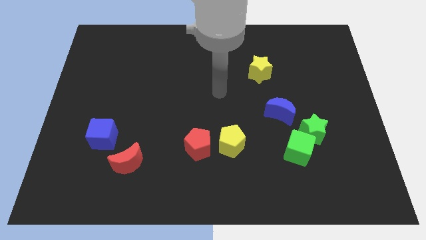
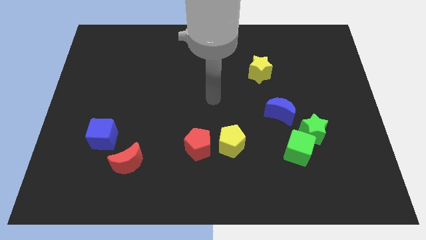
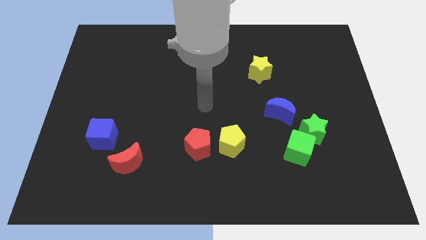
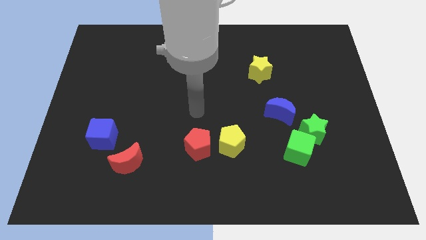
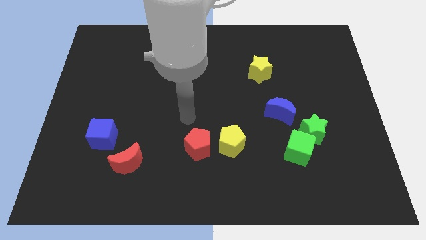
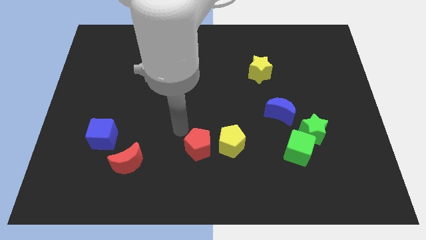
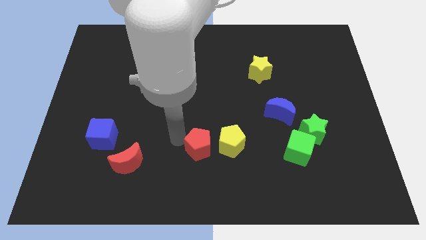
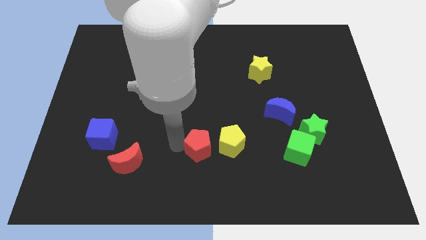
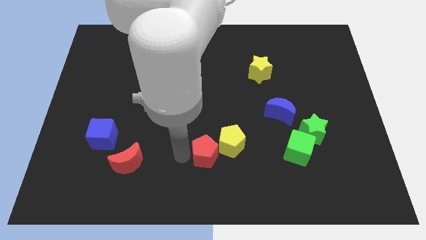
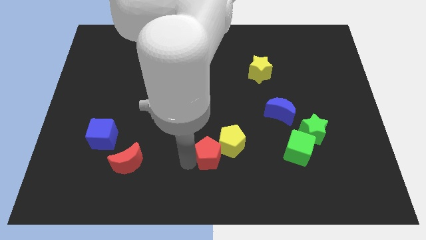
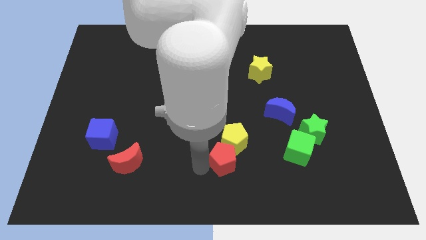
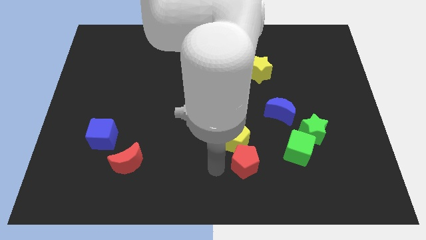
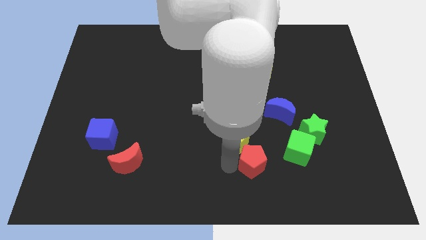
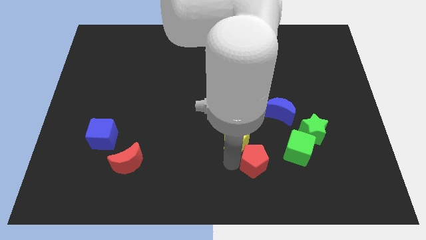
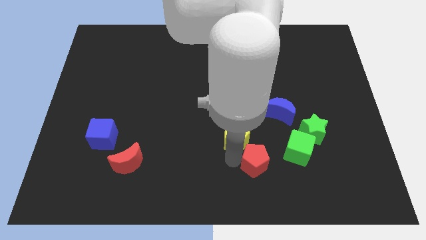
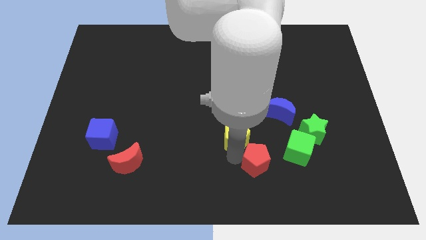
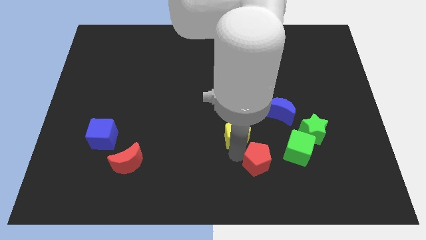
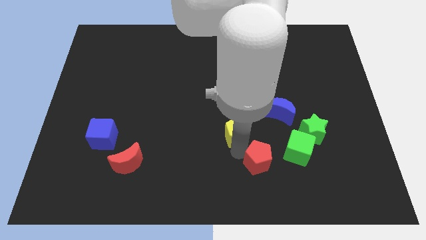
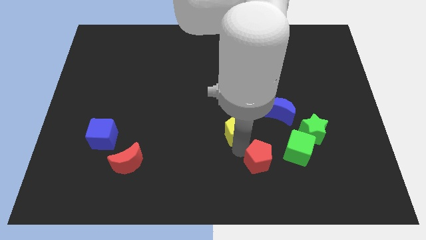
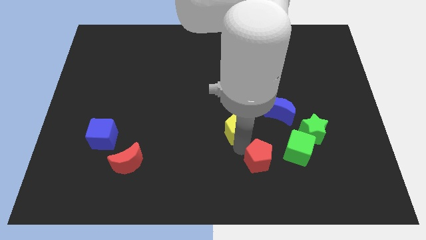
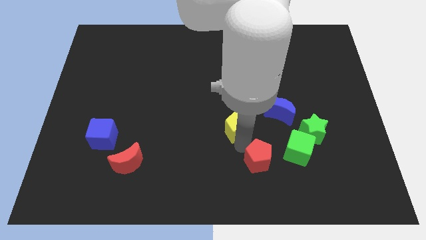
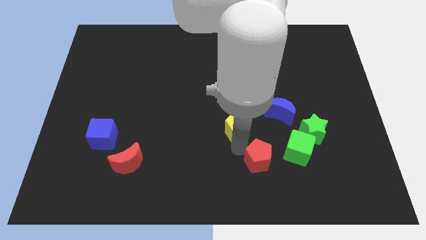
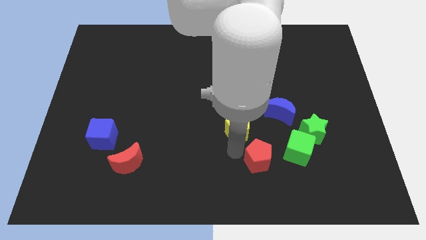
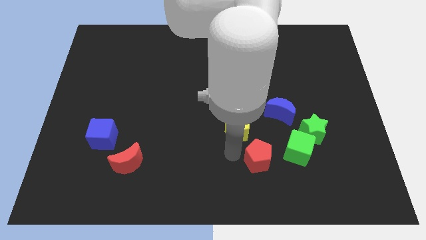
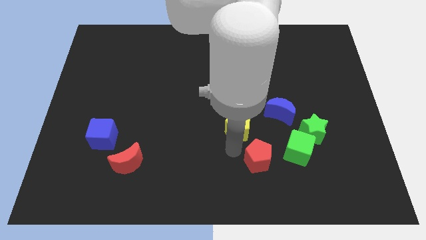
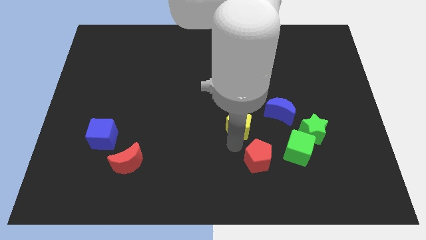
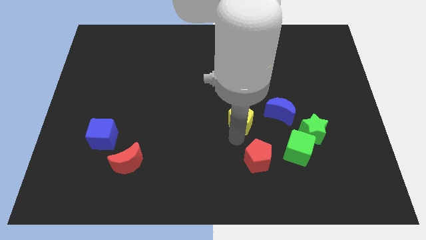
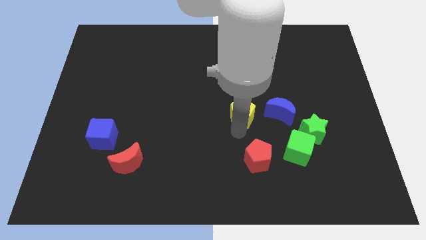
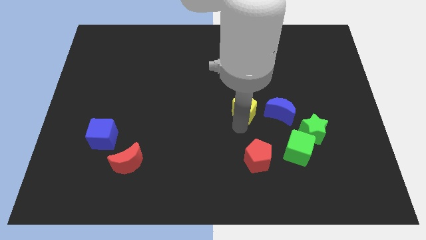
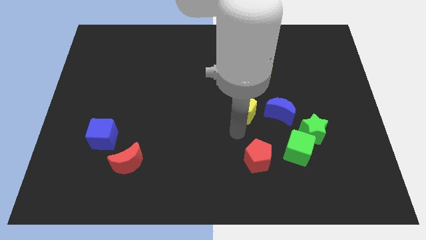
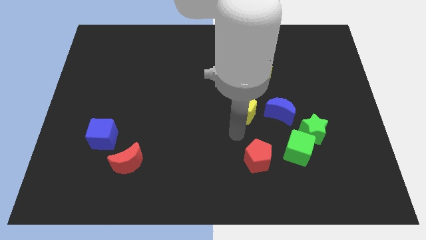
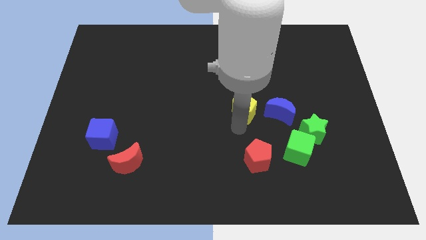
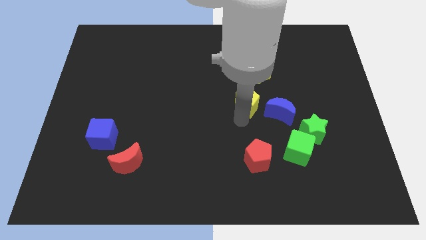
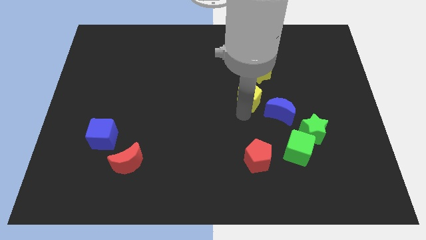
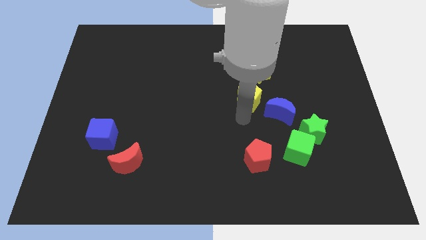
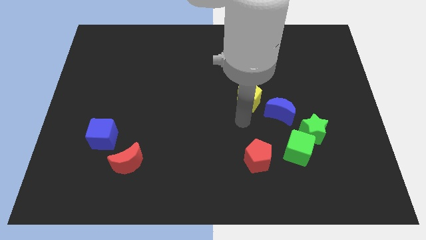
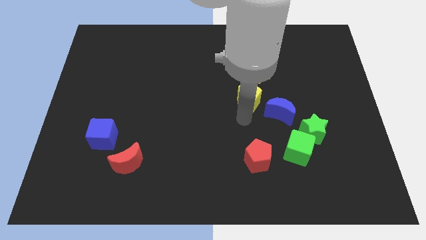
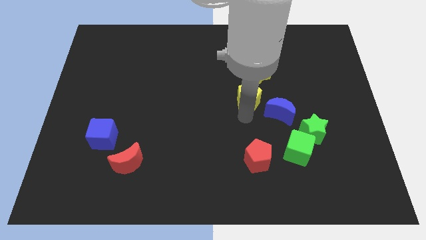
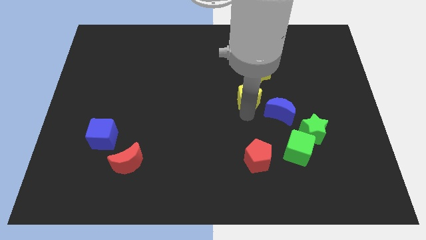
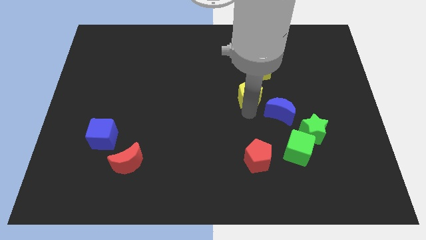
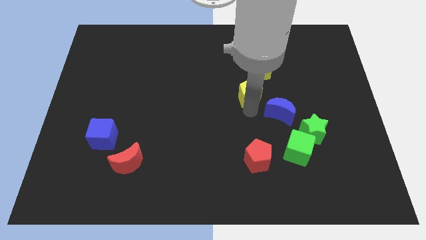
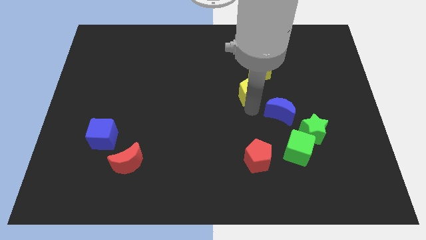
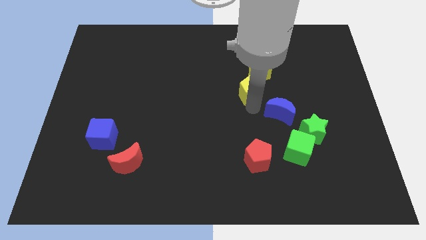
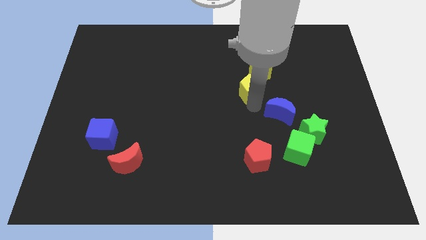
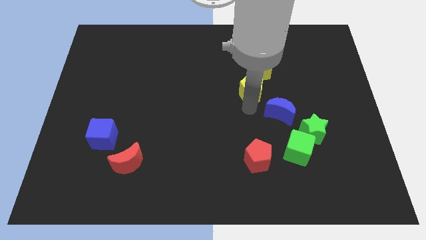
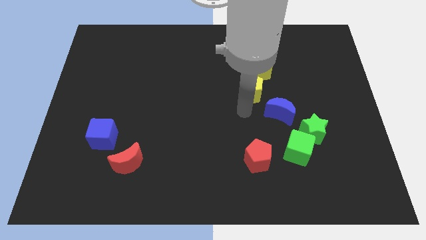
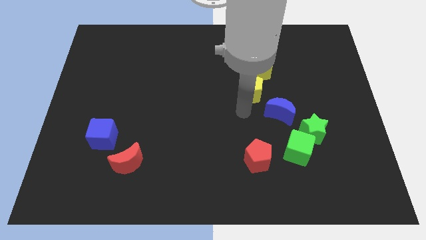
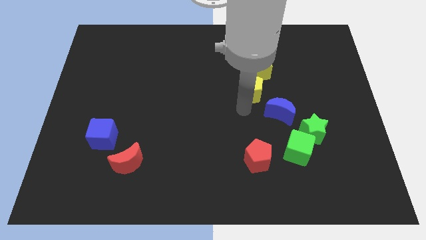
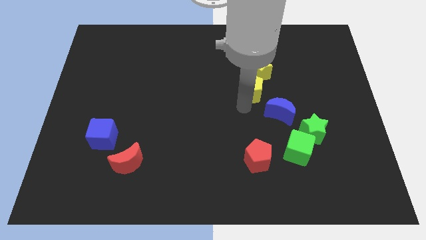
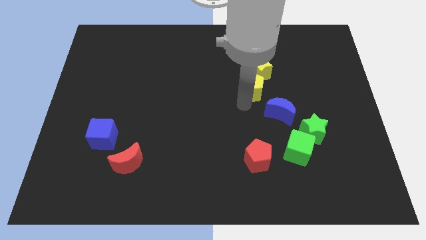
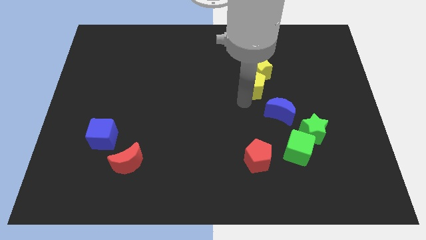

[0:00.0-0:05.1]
push the yellow pentagon next to the yellow star

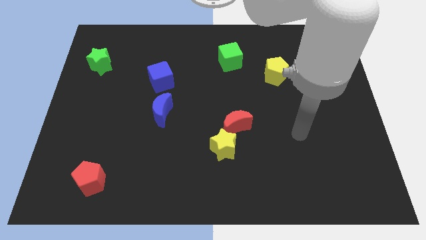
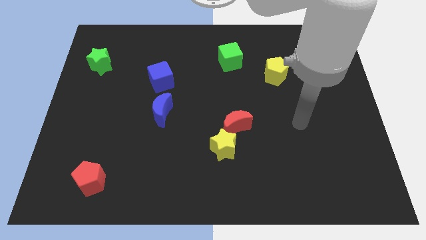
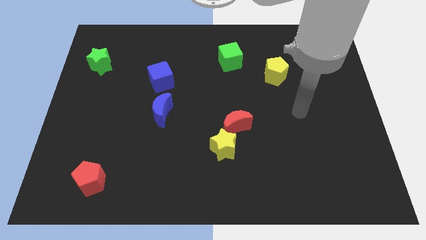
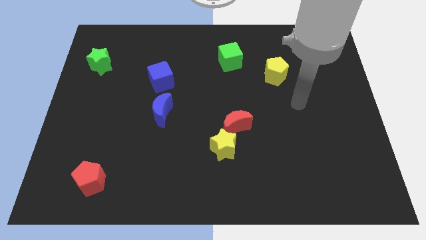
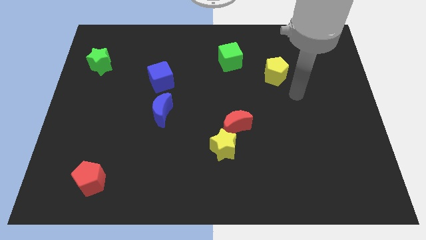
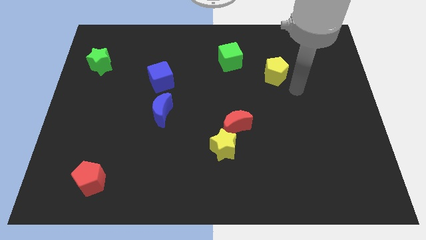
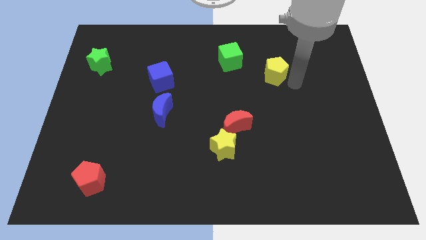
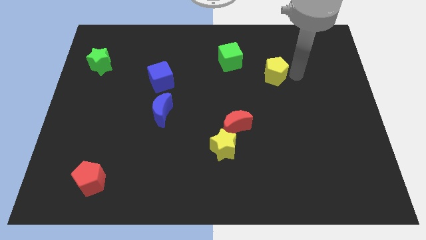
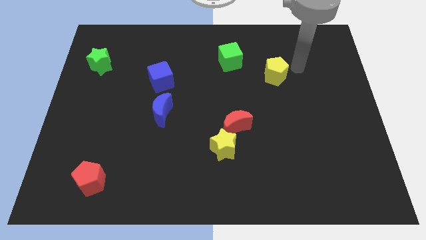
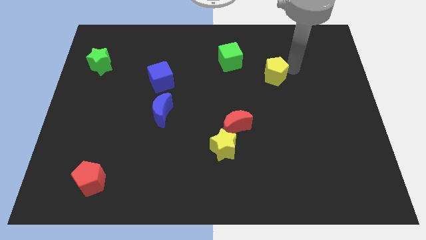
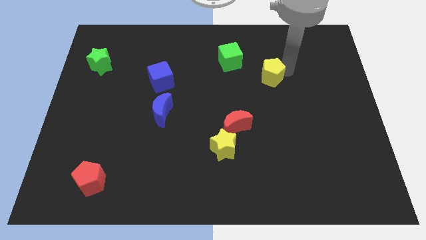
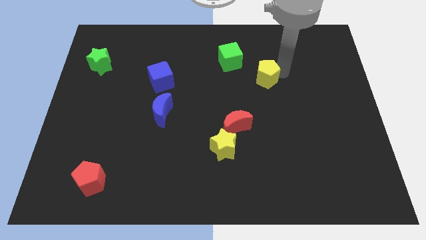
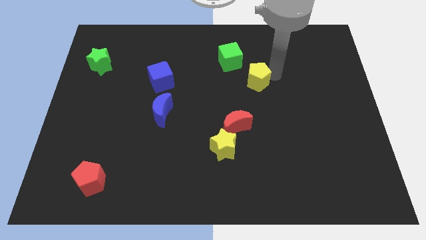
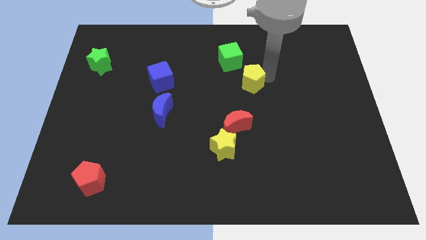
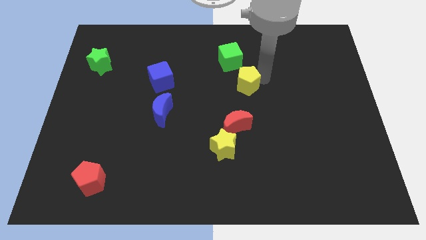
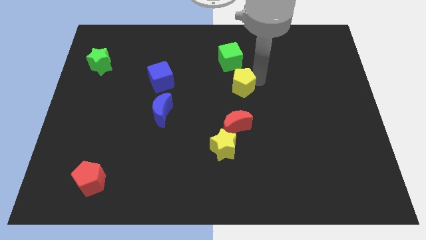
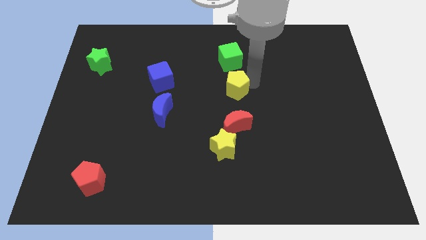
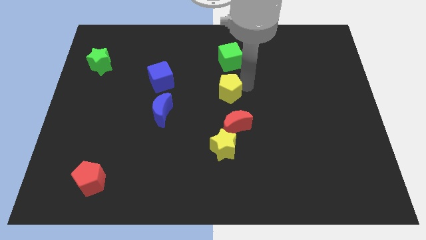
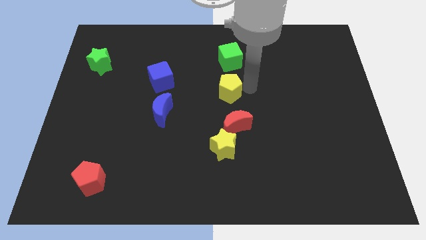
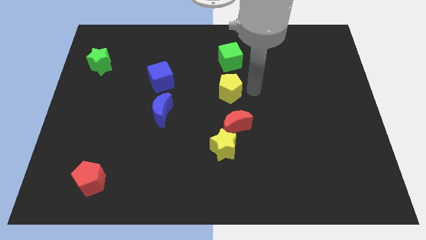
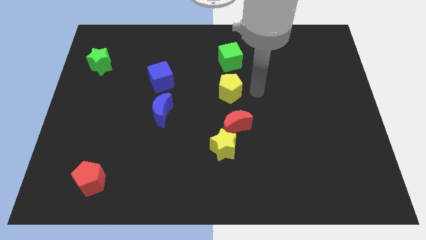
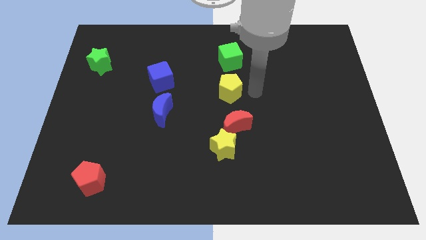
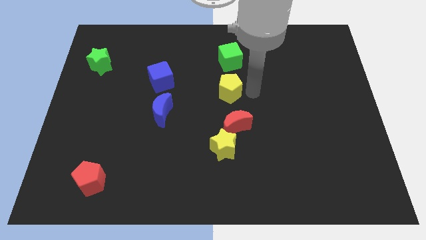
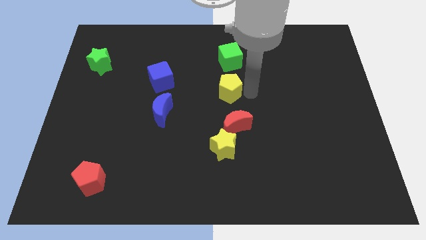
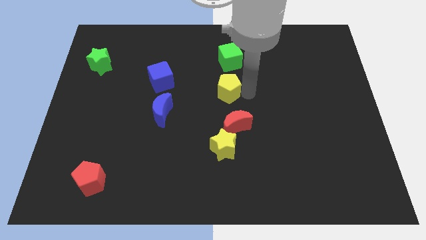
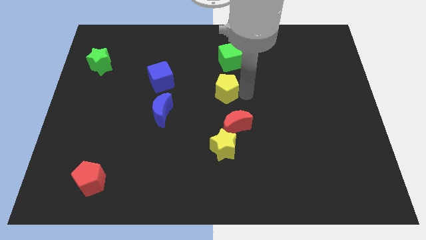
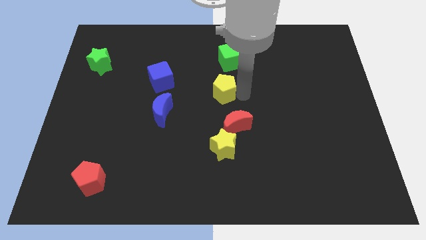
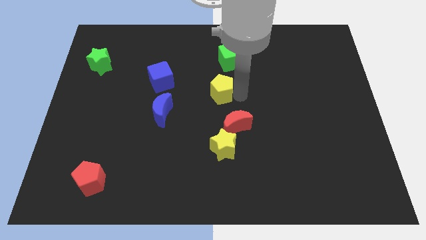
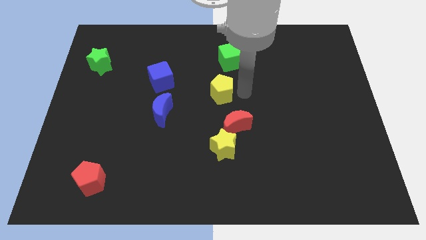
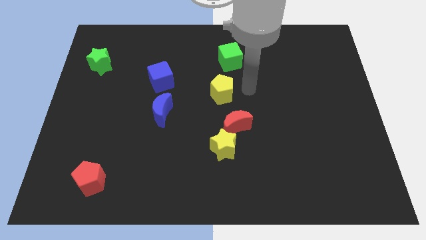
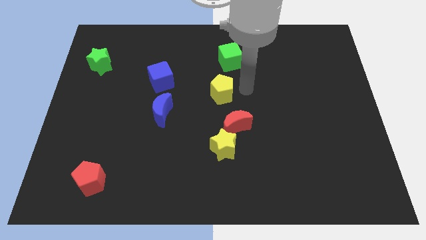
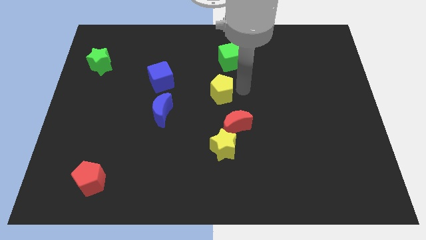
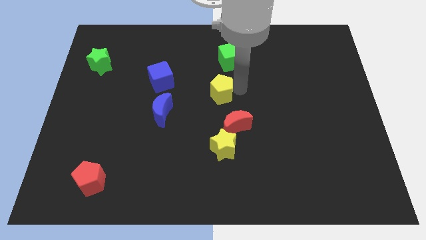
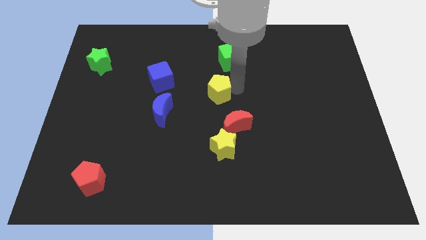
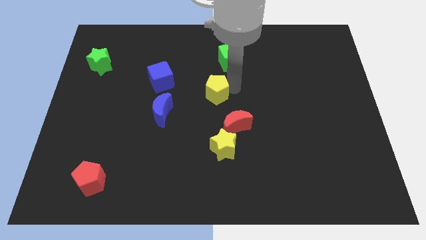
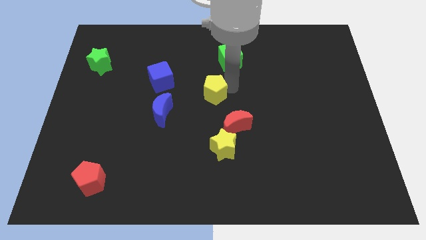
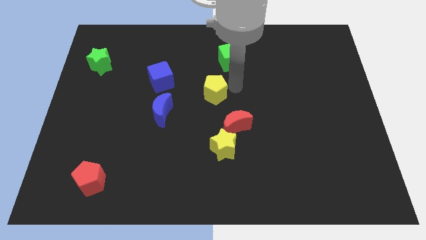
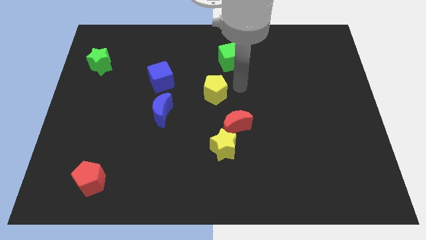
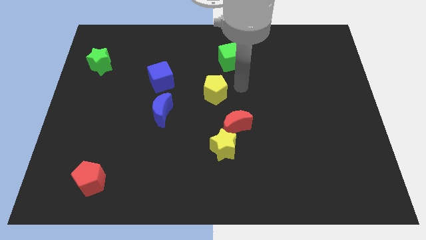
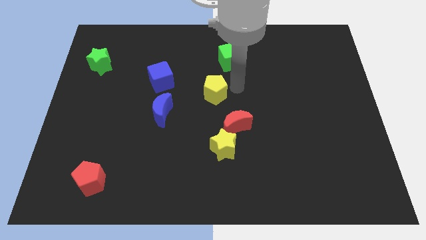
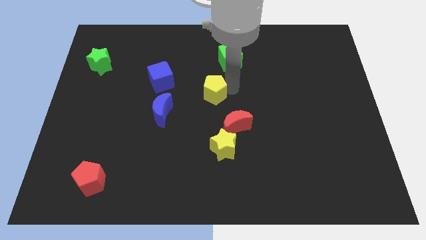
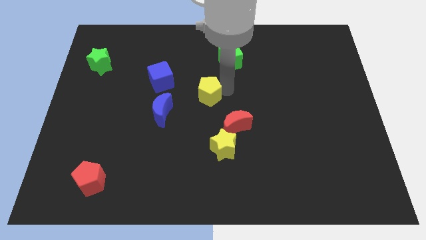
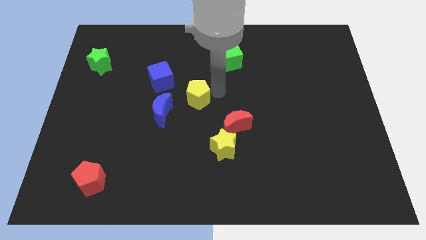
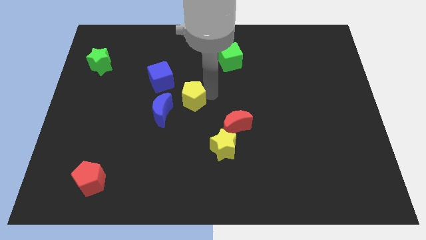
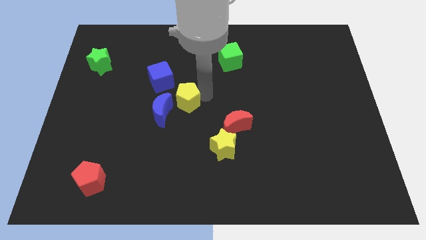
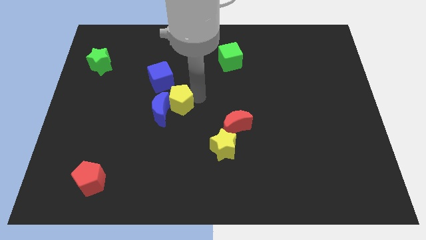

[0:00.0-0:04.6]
push the yellow pentagon next to the blue moon
